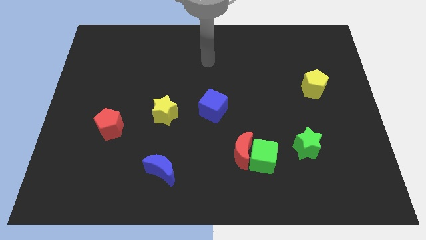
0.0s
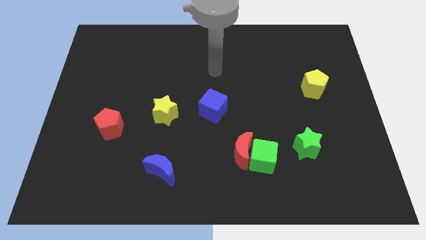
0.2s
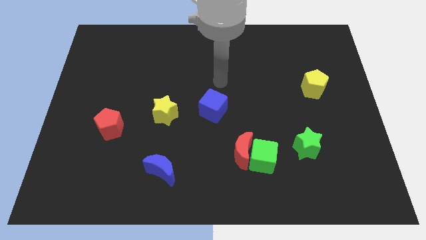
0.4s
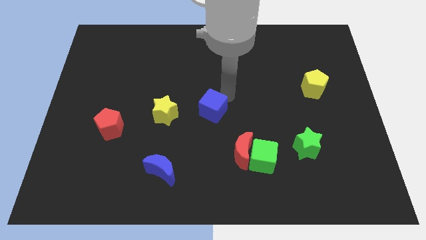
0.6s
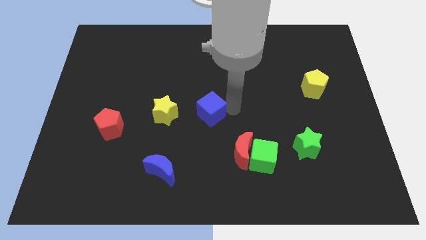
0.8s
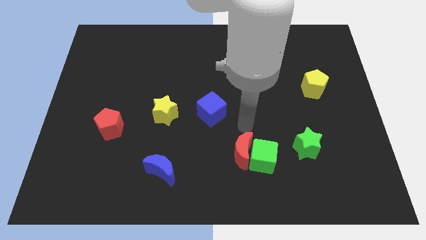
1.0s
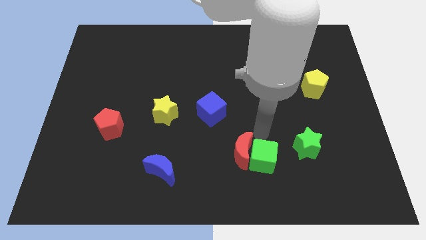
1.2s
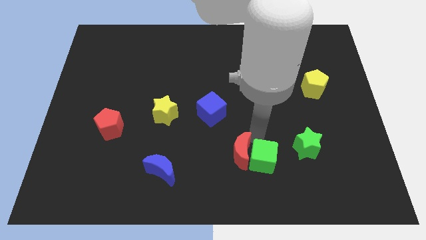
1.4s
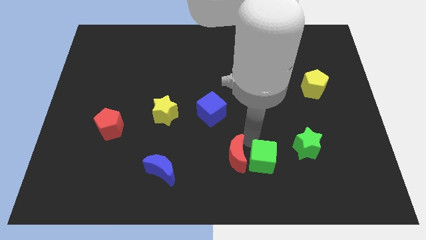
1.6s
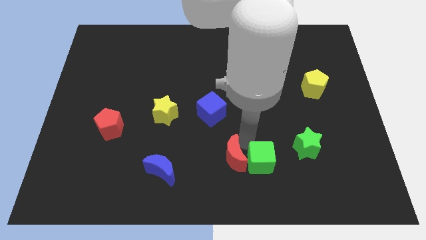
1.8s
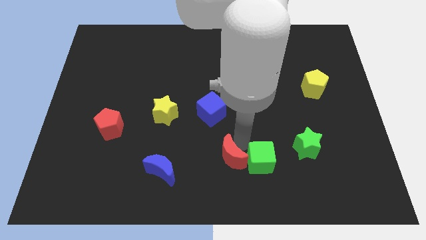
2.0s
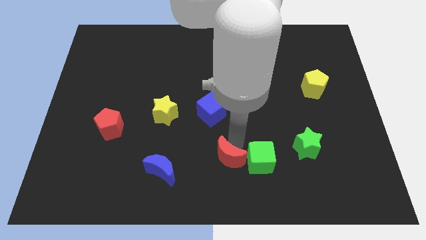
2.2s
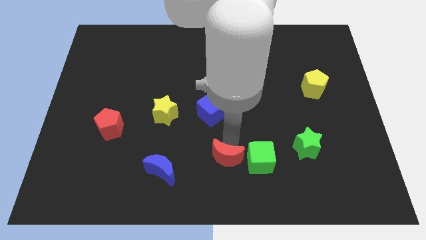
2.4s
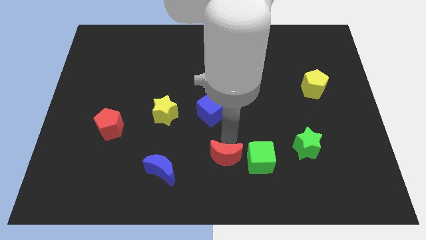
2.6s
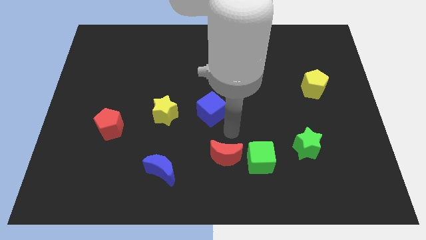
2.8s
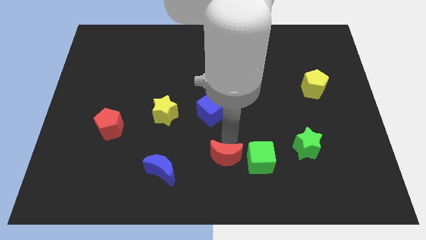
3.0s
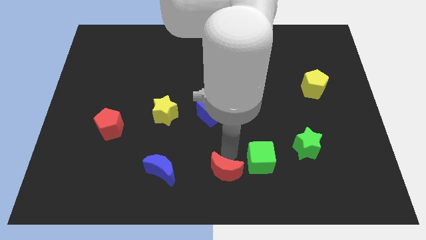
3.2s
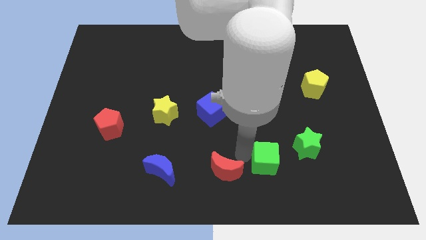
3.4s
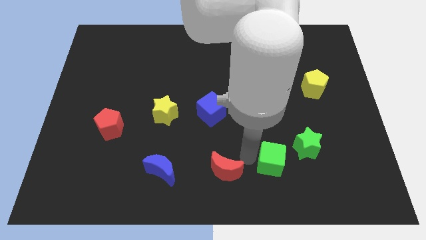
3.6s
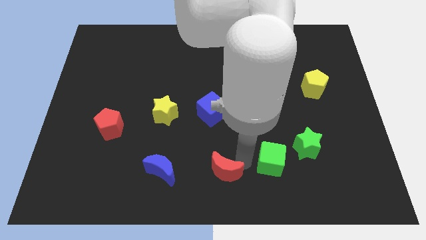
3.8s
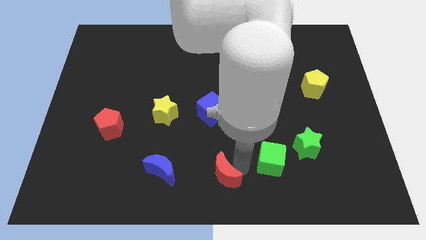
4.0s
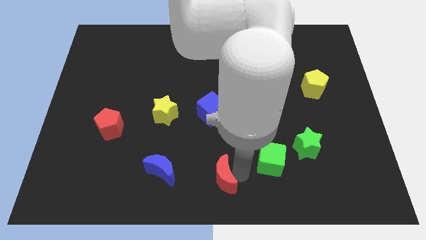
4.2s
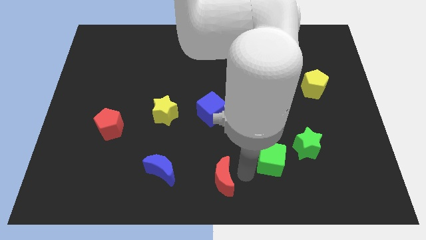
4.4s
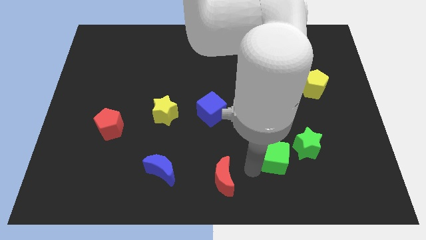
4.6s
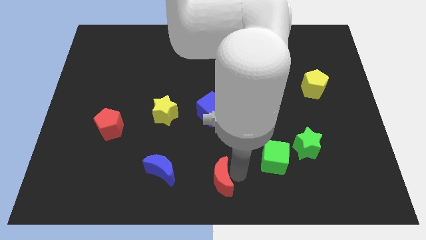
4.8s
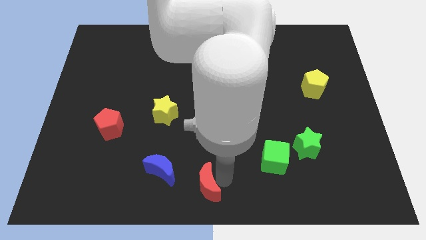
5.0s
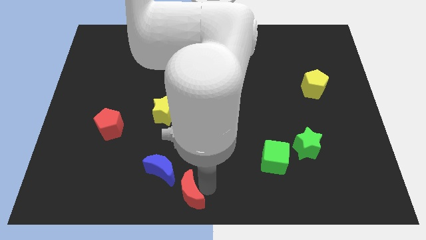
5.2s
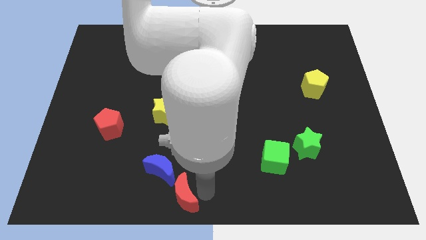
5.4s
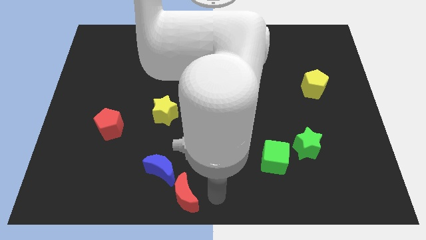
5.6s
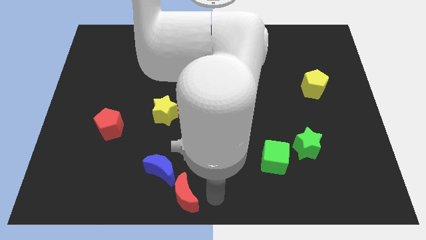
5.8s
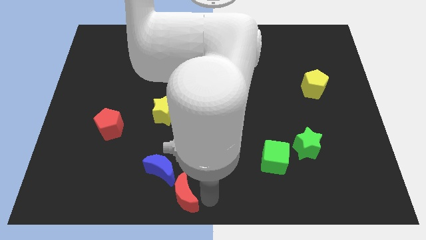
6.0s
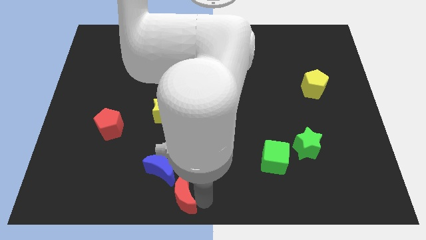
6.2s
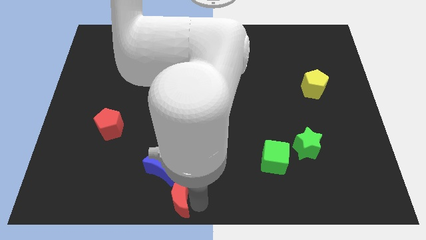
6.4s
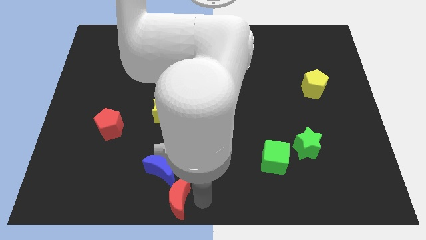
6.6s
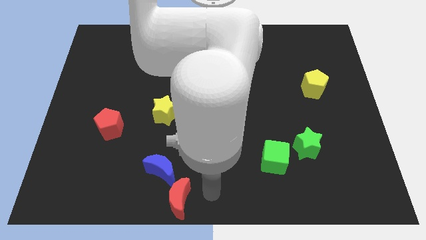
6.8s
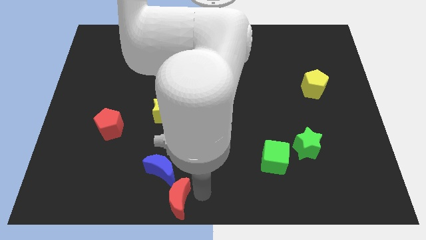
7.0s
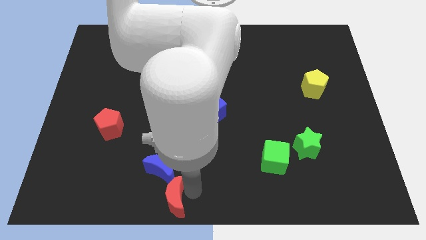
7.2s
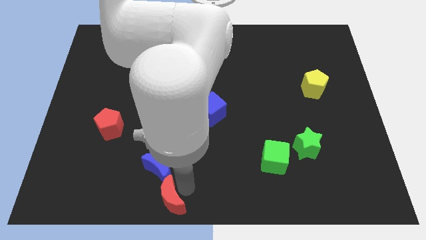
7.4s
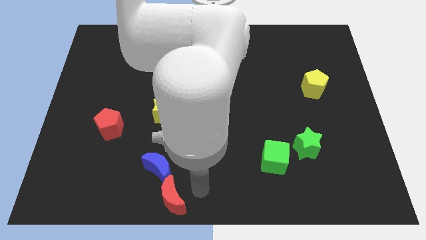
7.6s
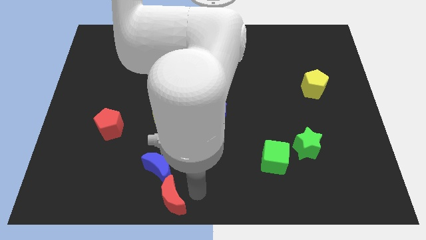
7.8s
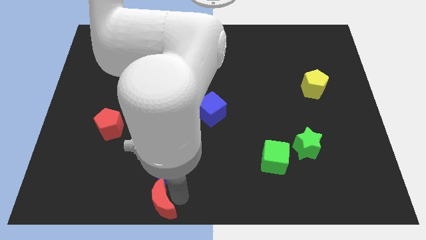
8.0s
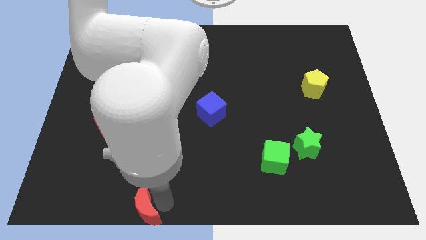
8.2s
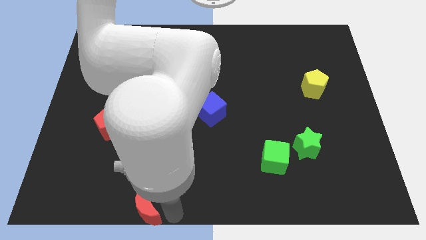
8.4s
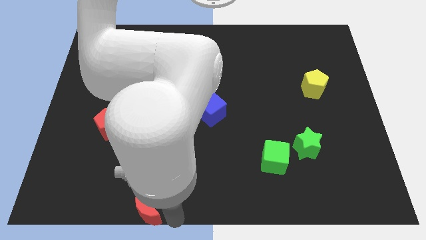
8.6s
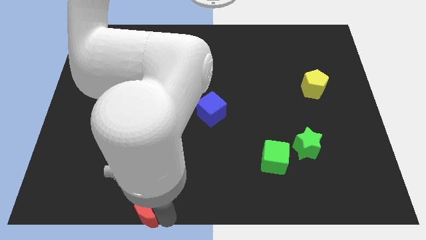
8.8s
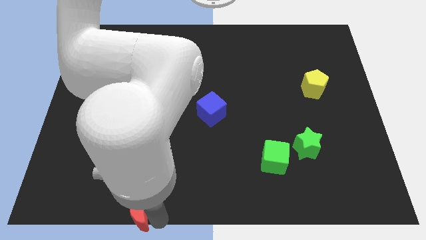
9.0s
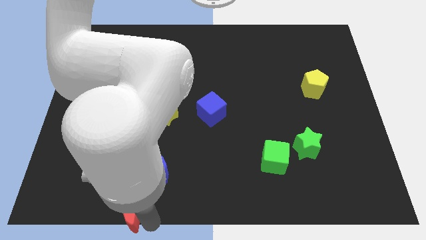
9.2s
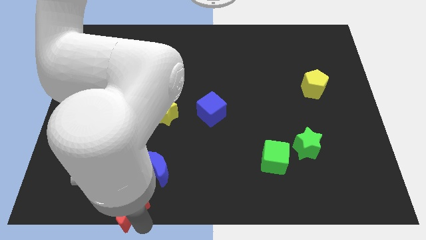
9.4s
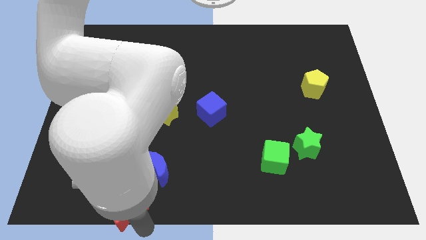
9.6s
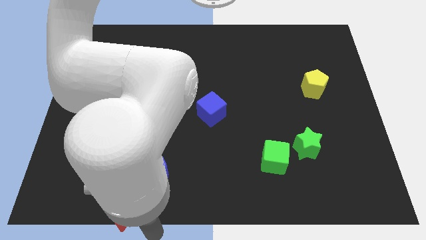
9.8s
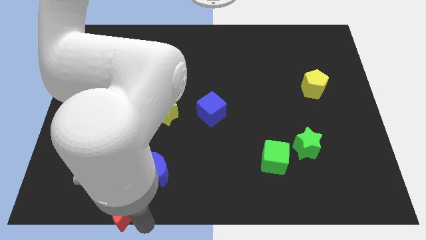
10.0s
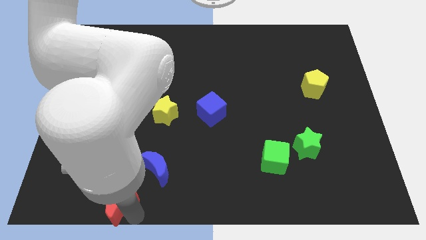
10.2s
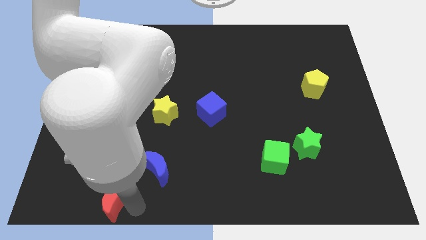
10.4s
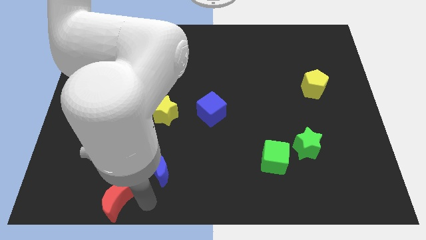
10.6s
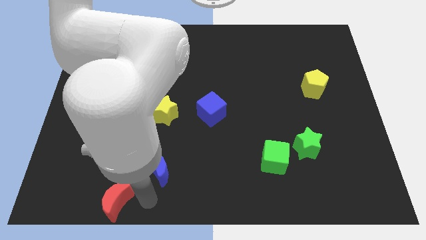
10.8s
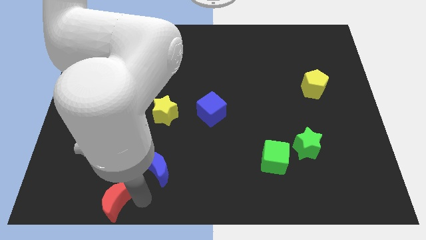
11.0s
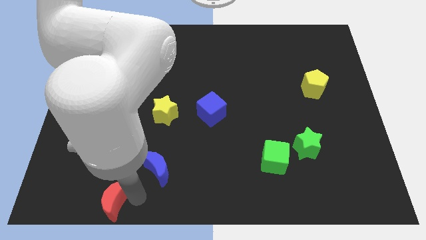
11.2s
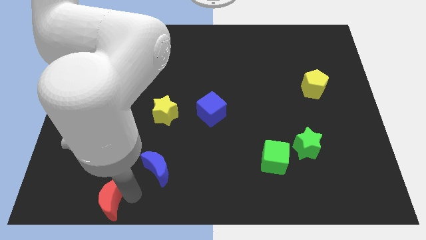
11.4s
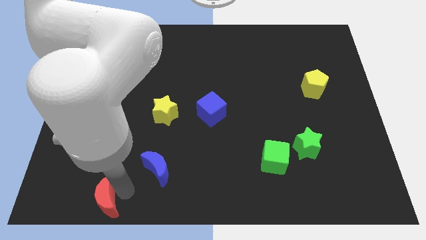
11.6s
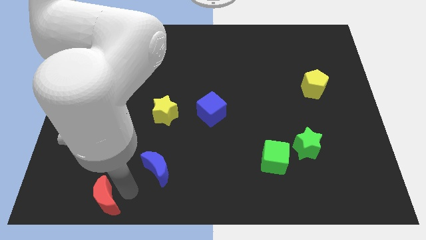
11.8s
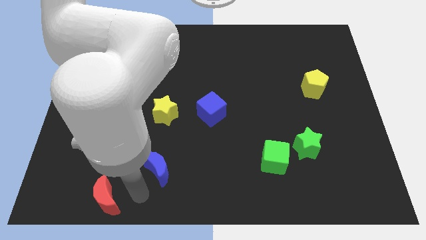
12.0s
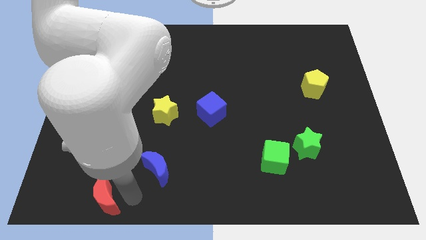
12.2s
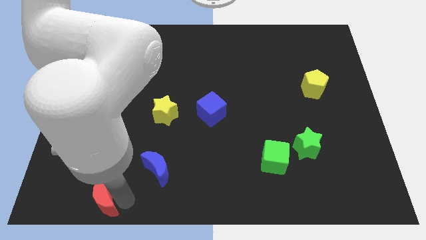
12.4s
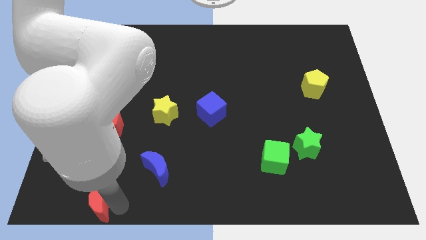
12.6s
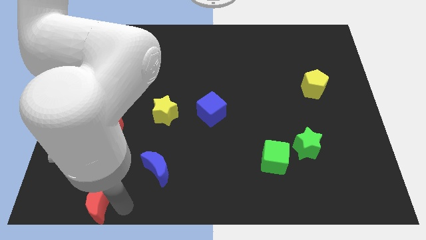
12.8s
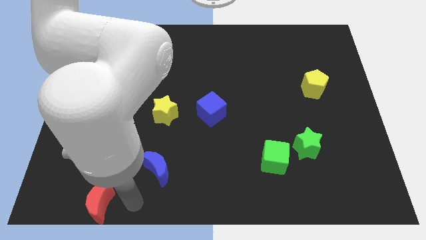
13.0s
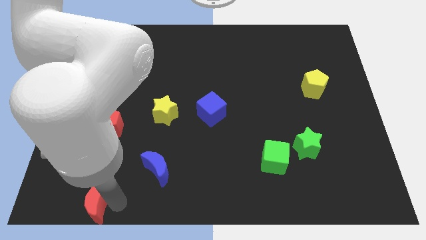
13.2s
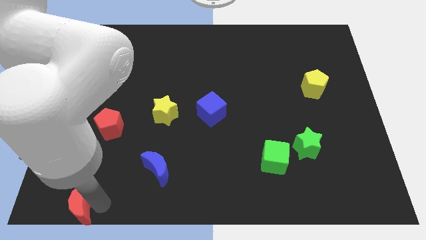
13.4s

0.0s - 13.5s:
put the red moon to the bottom left of the board
